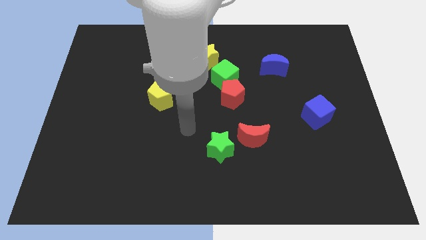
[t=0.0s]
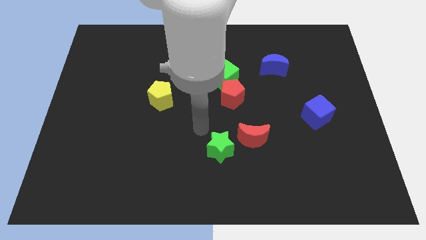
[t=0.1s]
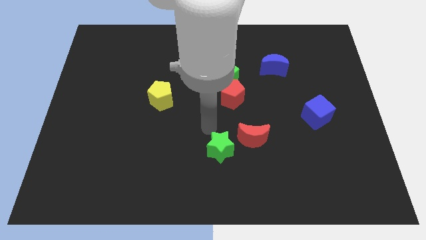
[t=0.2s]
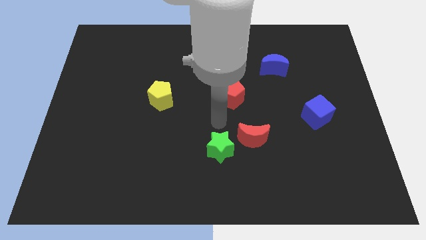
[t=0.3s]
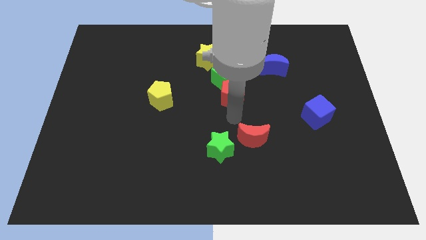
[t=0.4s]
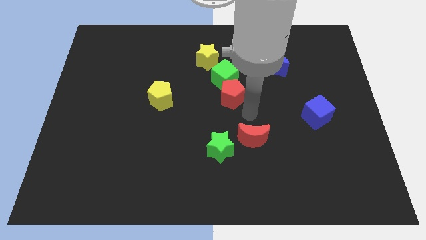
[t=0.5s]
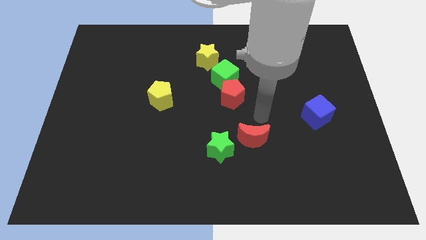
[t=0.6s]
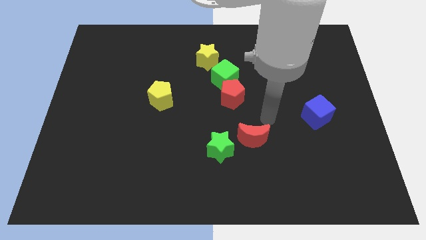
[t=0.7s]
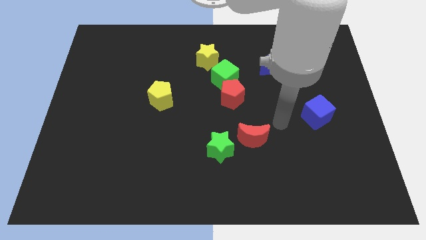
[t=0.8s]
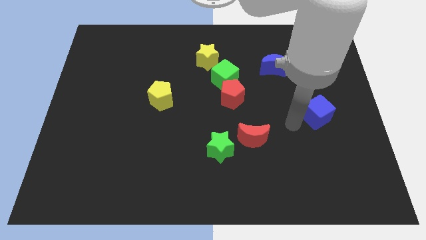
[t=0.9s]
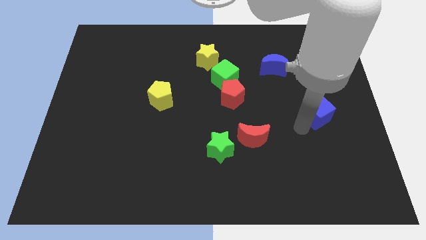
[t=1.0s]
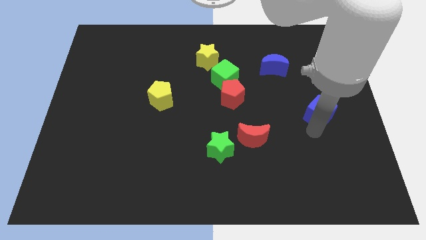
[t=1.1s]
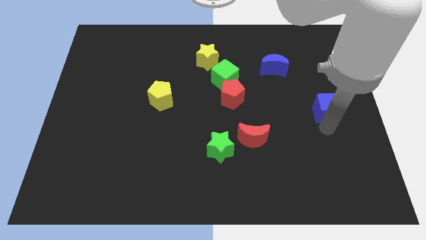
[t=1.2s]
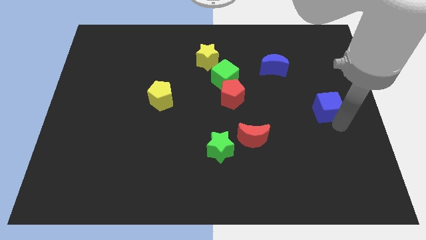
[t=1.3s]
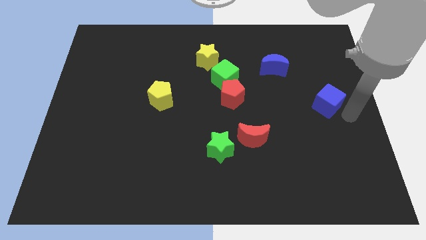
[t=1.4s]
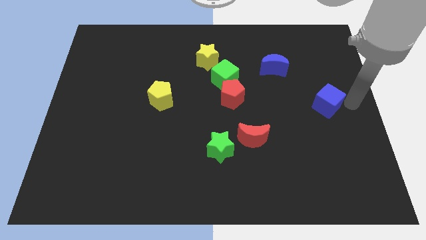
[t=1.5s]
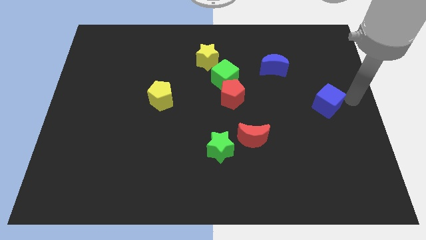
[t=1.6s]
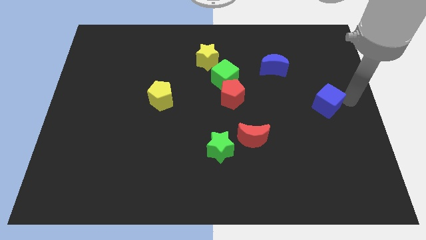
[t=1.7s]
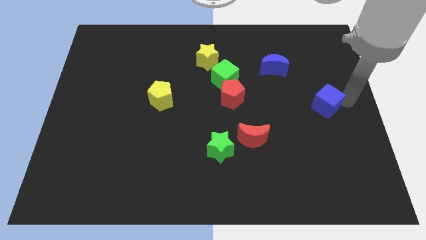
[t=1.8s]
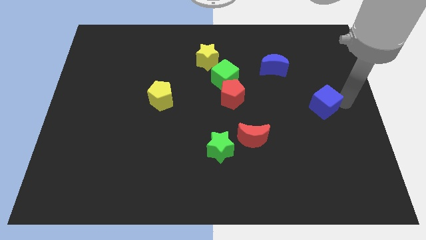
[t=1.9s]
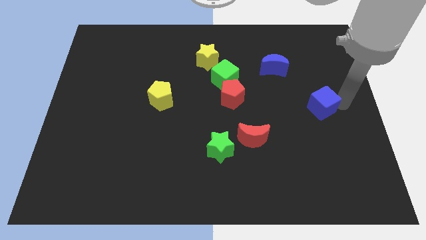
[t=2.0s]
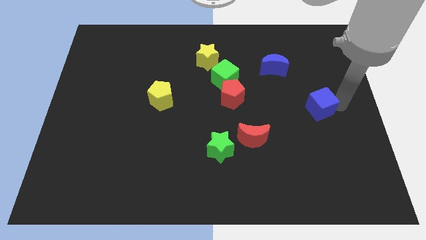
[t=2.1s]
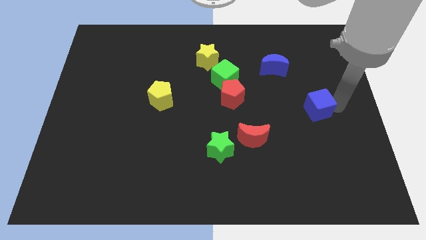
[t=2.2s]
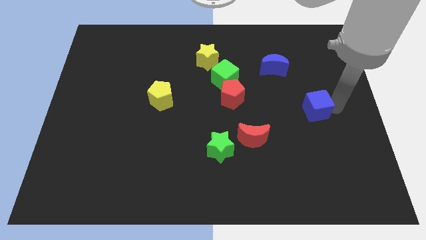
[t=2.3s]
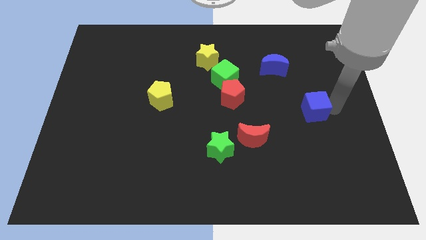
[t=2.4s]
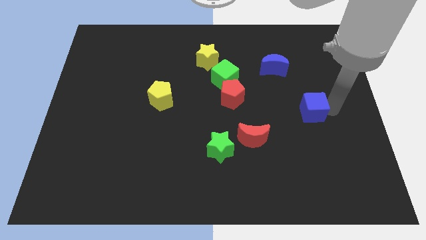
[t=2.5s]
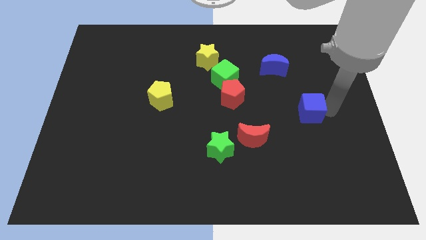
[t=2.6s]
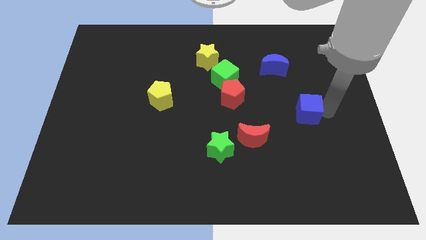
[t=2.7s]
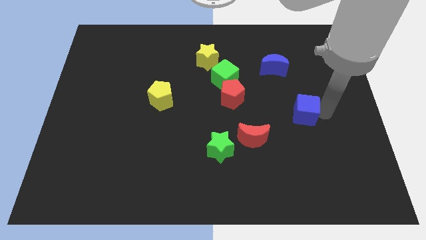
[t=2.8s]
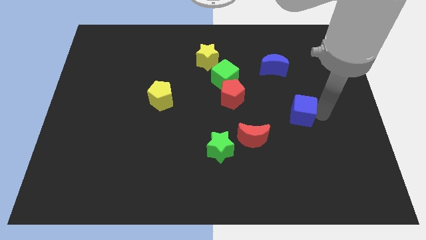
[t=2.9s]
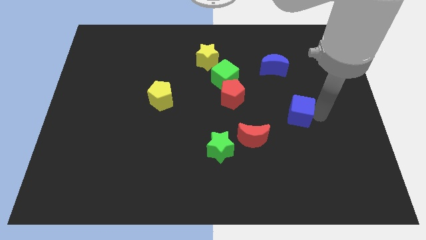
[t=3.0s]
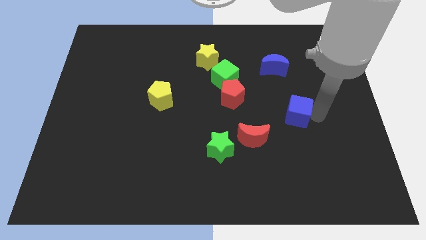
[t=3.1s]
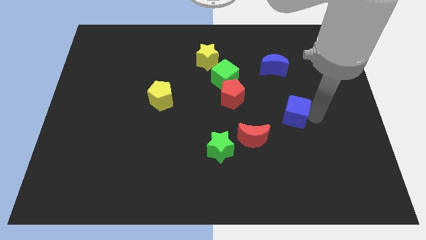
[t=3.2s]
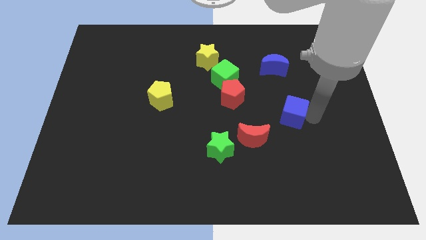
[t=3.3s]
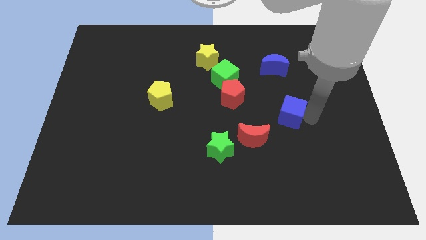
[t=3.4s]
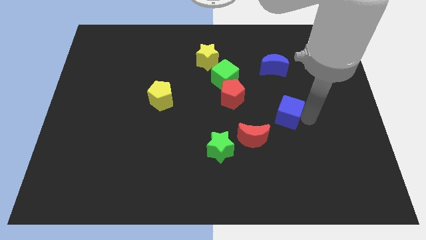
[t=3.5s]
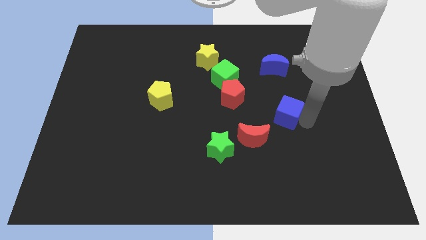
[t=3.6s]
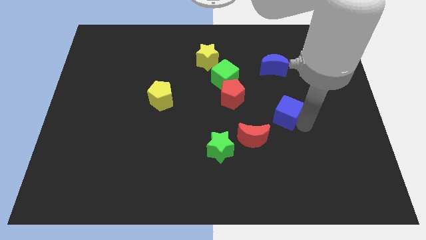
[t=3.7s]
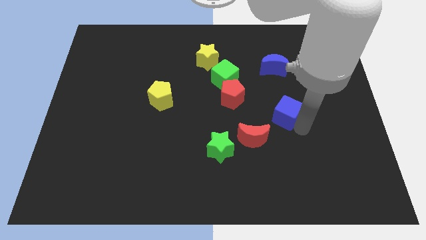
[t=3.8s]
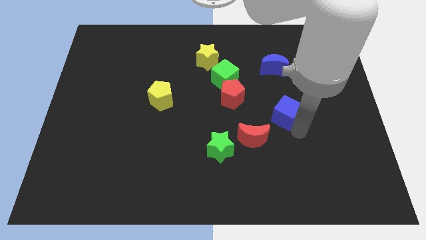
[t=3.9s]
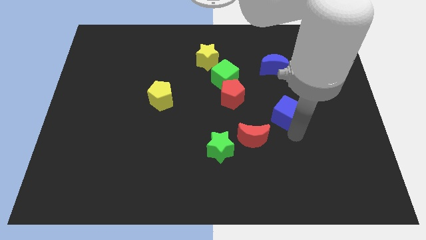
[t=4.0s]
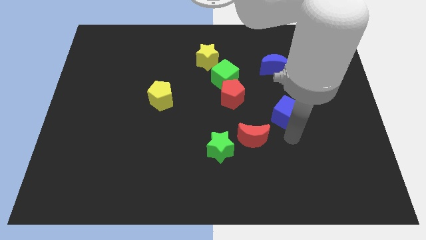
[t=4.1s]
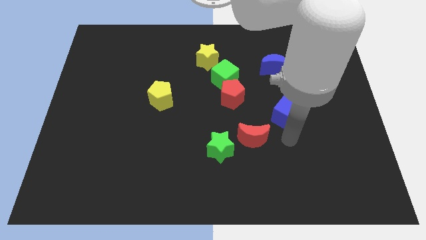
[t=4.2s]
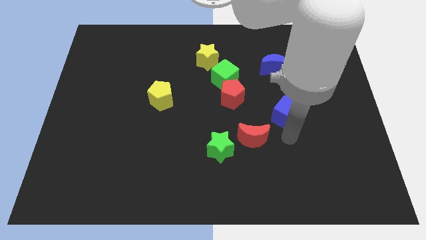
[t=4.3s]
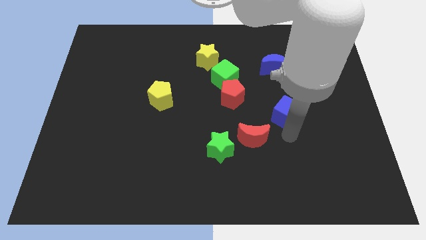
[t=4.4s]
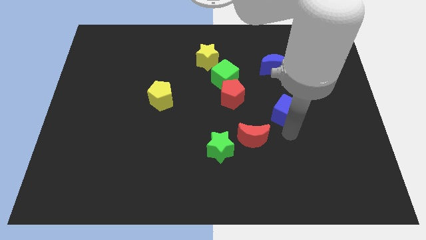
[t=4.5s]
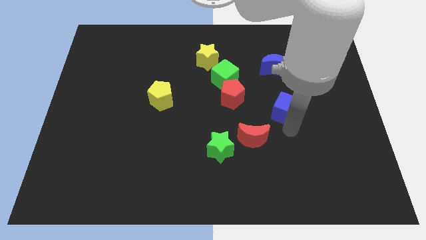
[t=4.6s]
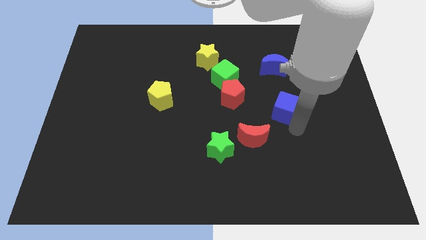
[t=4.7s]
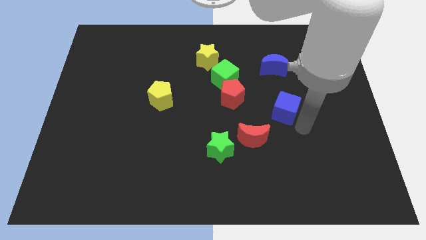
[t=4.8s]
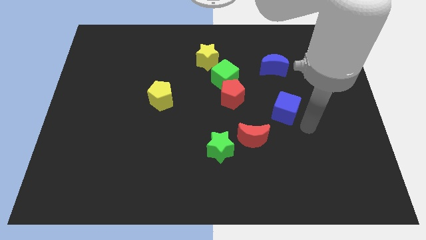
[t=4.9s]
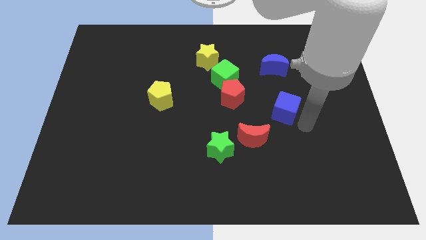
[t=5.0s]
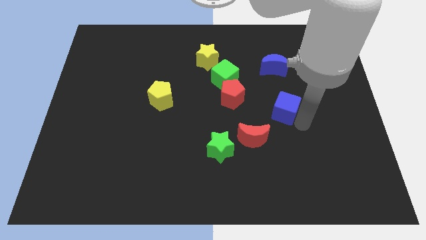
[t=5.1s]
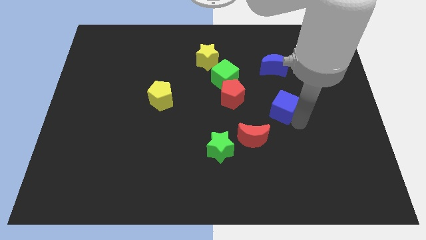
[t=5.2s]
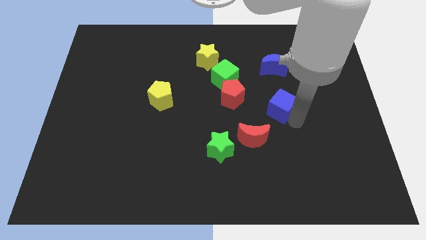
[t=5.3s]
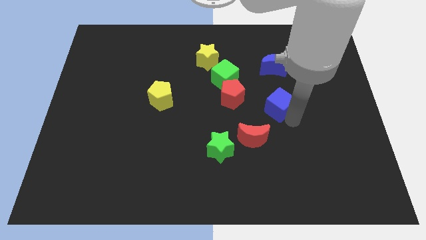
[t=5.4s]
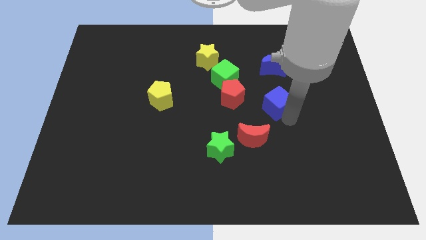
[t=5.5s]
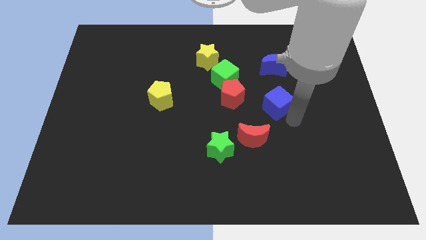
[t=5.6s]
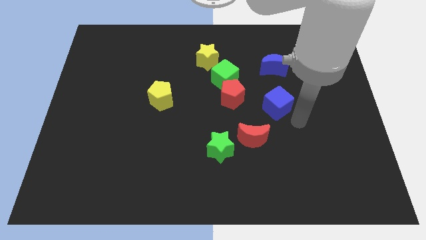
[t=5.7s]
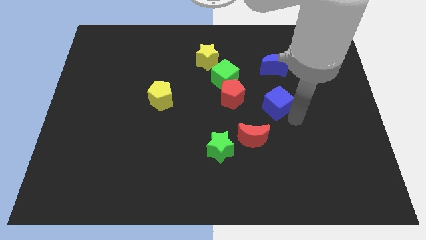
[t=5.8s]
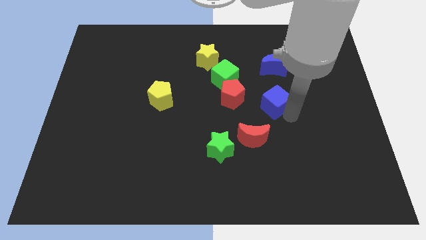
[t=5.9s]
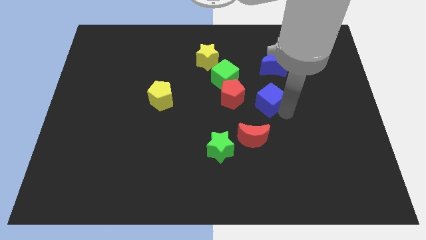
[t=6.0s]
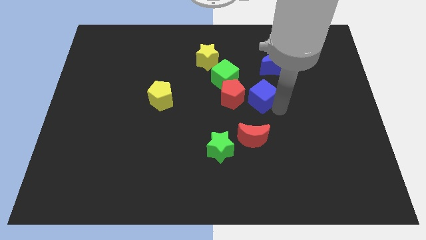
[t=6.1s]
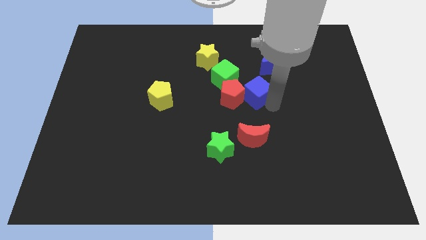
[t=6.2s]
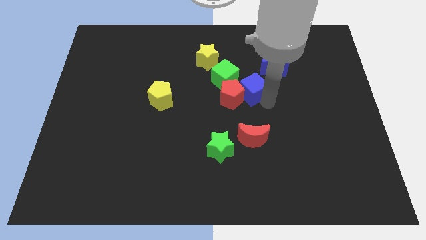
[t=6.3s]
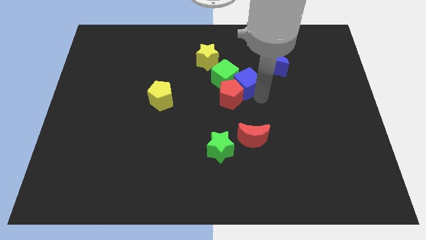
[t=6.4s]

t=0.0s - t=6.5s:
push the blue cube close to the green cube
